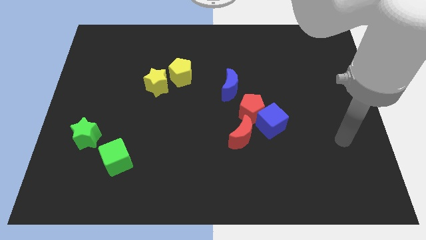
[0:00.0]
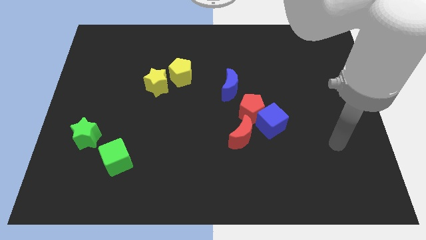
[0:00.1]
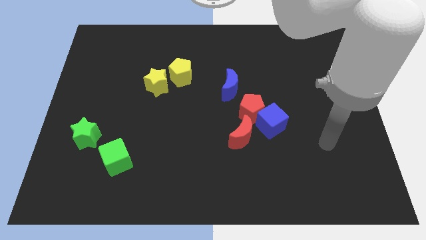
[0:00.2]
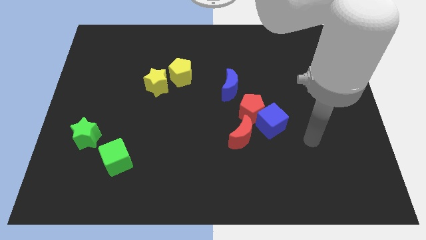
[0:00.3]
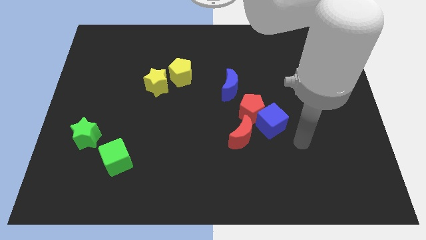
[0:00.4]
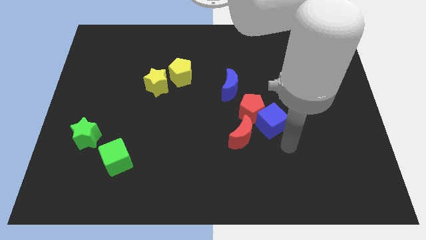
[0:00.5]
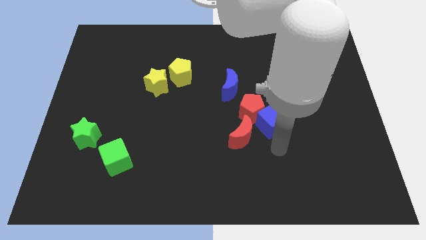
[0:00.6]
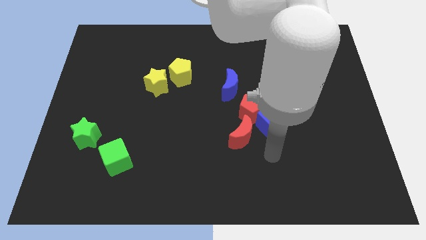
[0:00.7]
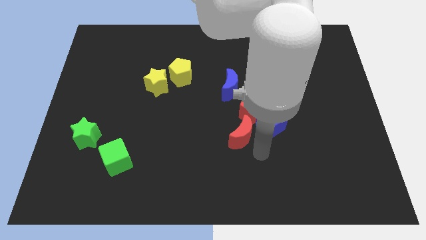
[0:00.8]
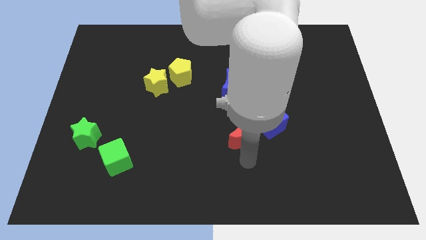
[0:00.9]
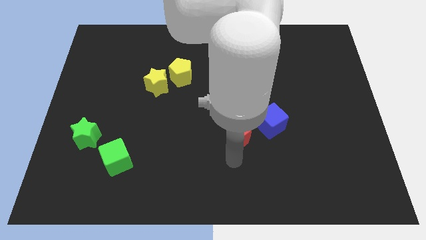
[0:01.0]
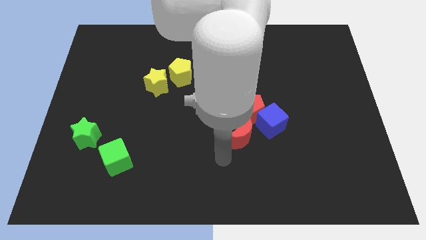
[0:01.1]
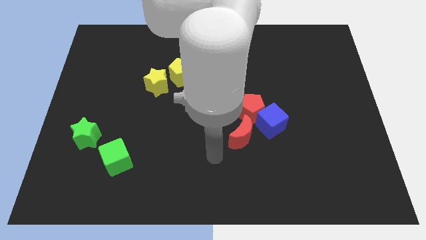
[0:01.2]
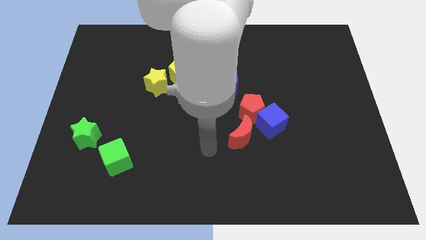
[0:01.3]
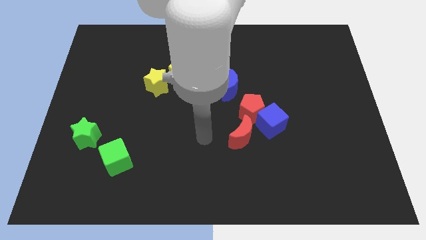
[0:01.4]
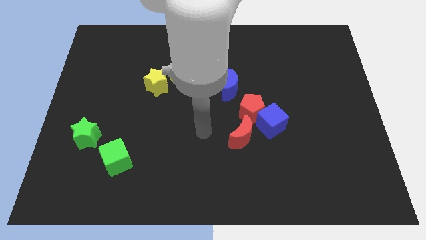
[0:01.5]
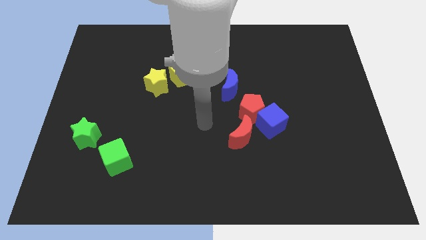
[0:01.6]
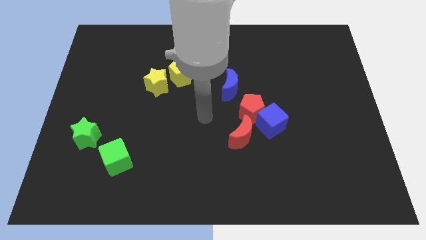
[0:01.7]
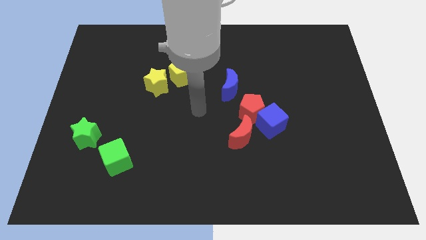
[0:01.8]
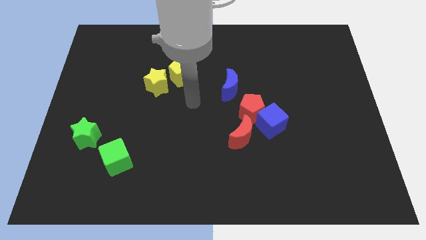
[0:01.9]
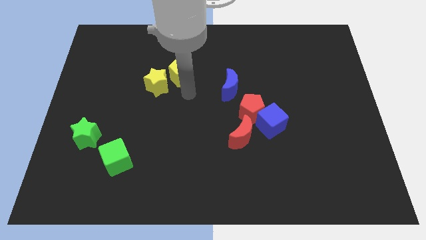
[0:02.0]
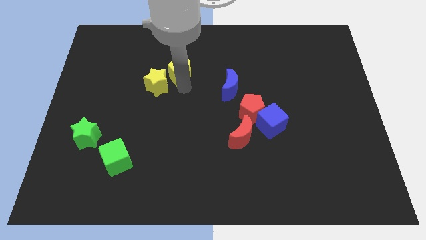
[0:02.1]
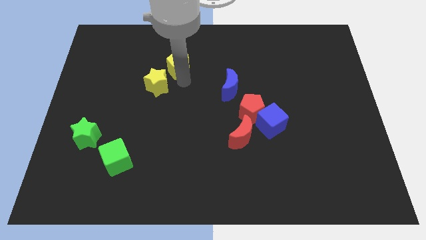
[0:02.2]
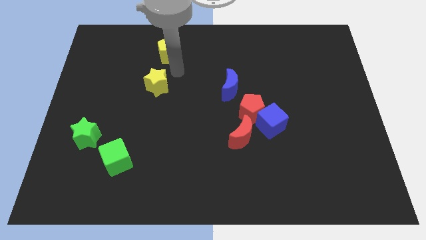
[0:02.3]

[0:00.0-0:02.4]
move the yellow star away from the yellow pentagon

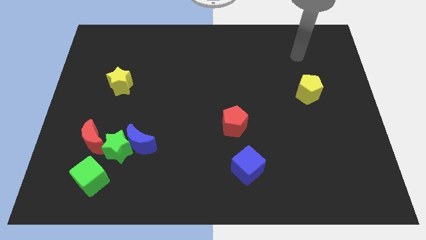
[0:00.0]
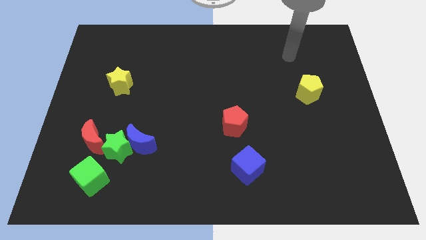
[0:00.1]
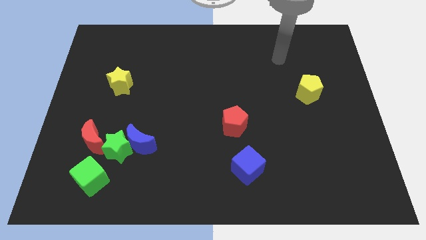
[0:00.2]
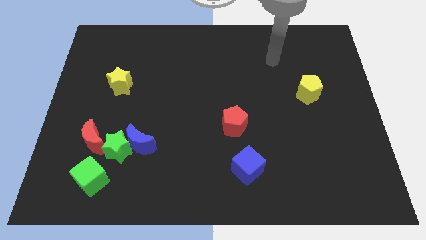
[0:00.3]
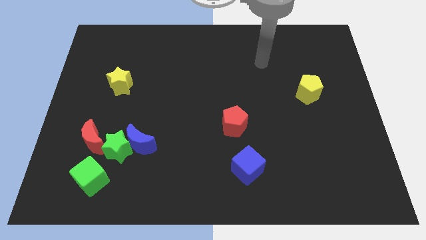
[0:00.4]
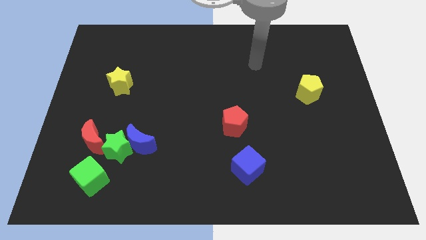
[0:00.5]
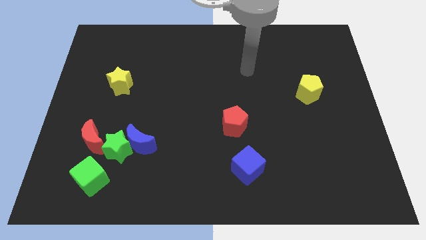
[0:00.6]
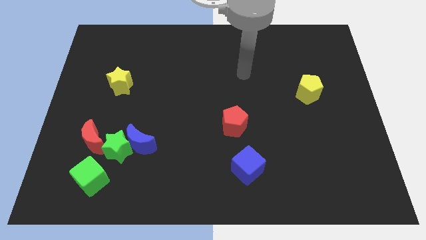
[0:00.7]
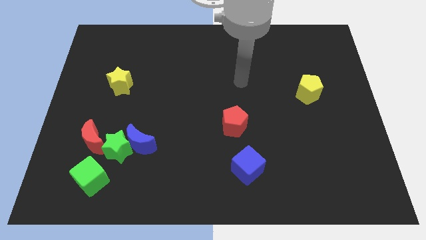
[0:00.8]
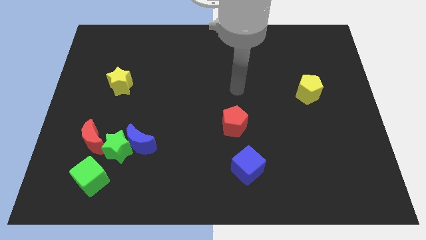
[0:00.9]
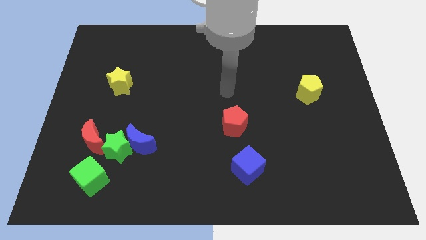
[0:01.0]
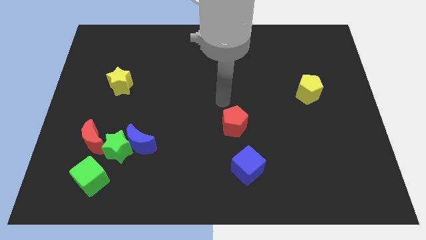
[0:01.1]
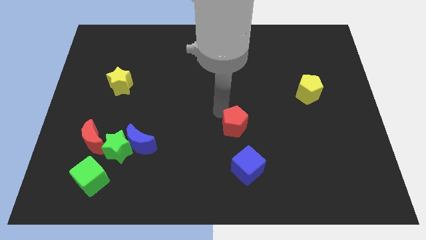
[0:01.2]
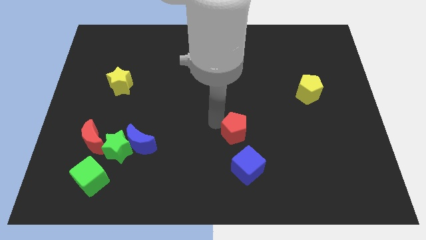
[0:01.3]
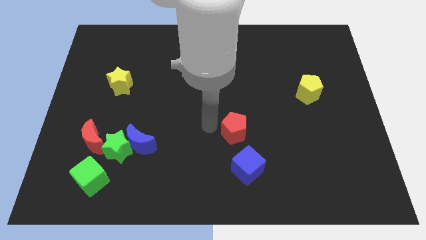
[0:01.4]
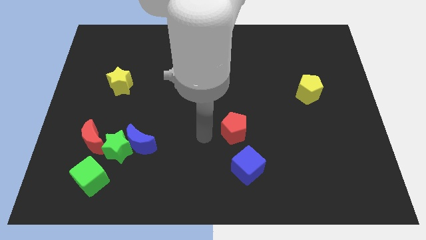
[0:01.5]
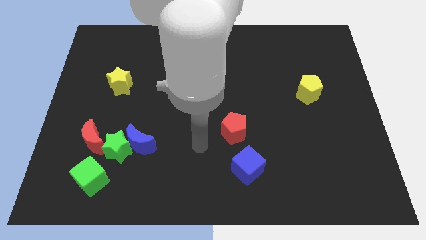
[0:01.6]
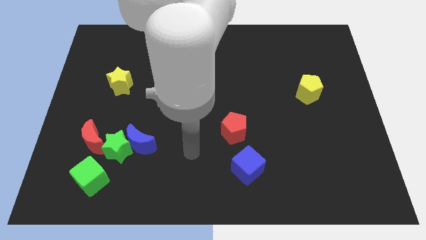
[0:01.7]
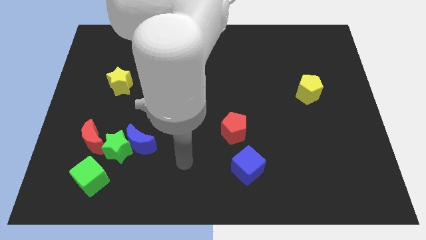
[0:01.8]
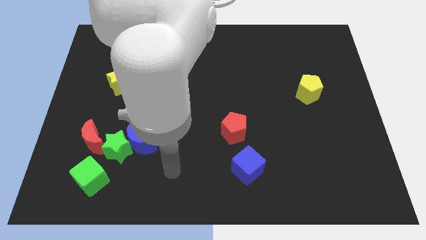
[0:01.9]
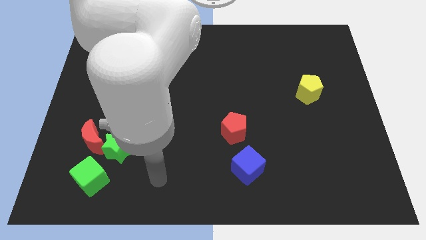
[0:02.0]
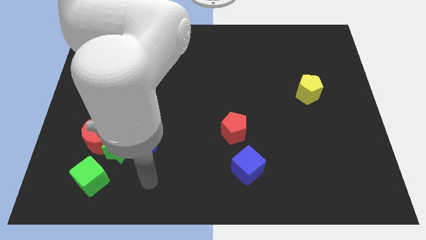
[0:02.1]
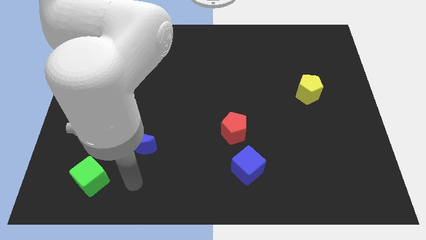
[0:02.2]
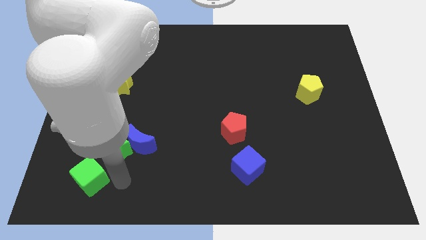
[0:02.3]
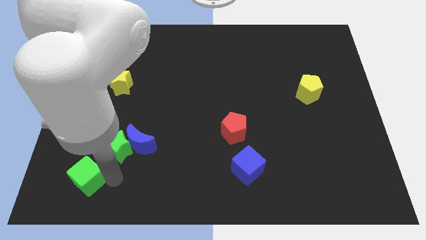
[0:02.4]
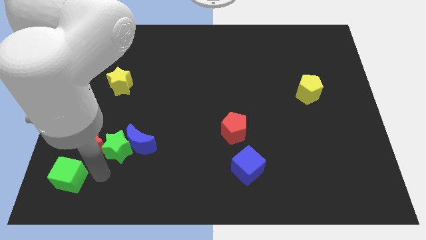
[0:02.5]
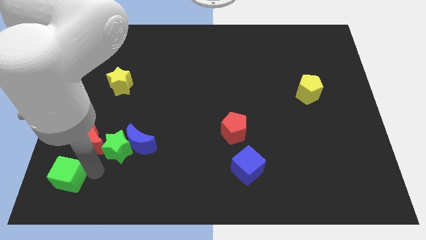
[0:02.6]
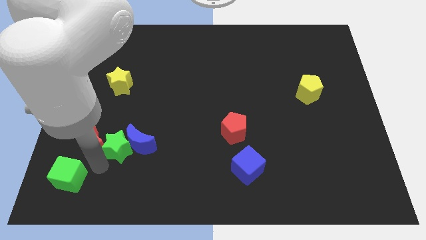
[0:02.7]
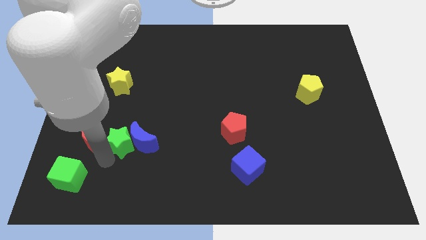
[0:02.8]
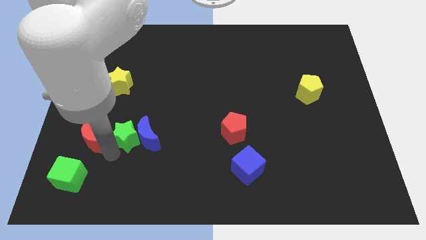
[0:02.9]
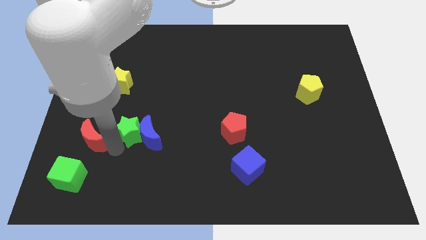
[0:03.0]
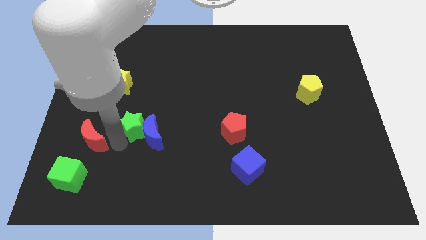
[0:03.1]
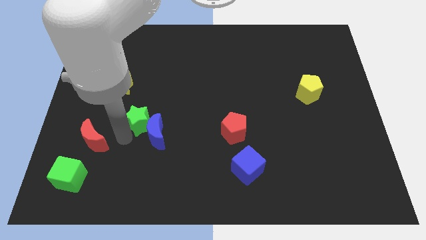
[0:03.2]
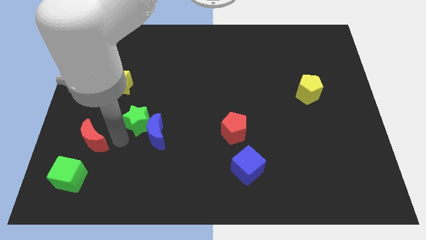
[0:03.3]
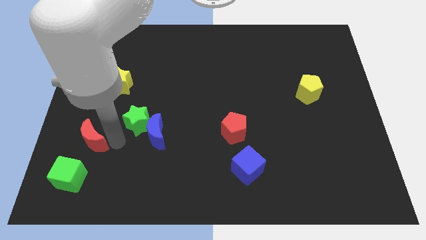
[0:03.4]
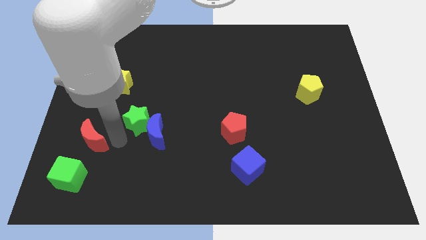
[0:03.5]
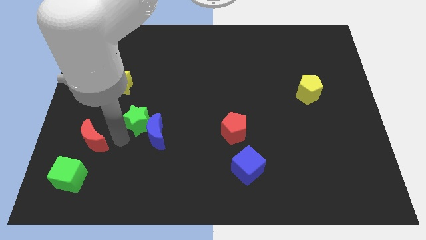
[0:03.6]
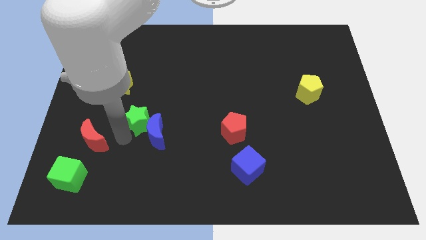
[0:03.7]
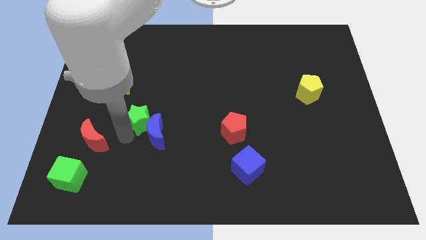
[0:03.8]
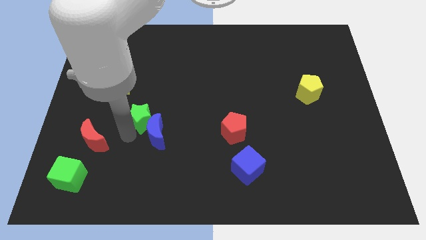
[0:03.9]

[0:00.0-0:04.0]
move the green star away from the blue moon, red moon, and green cube

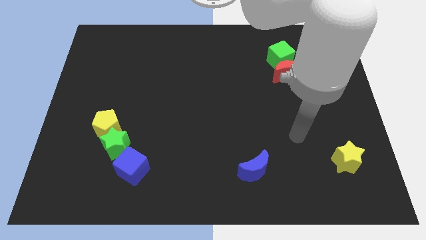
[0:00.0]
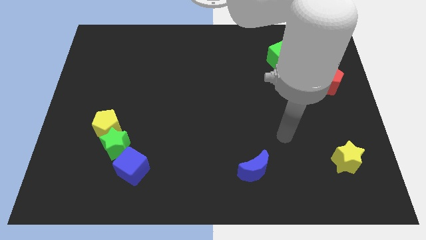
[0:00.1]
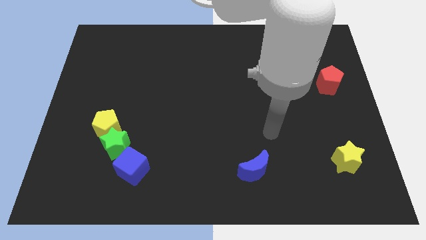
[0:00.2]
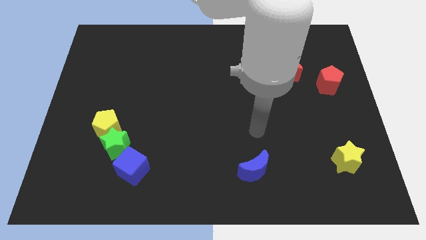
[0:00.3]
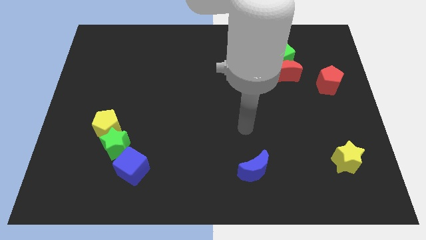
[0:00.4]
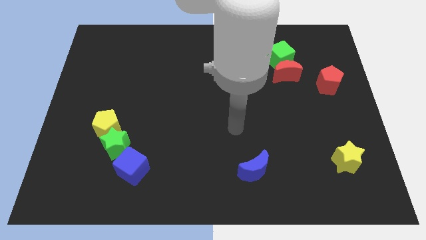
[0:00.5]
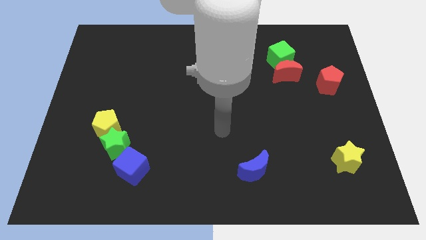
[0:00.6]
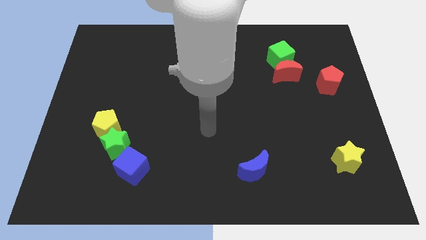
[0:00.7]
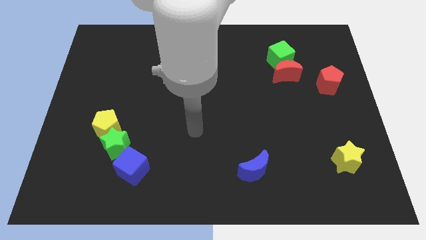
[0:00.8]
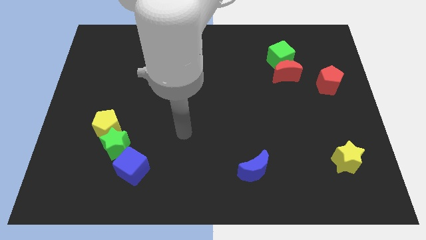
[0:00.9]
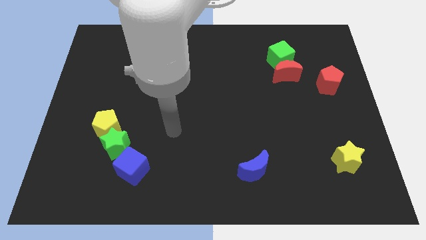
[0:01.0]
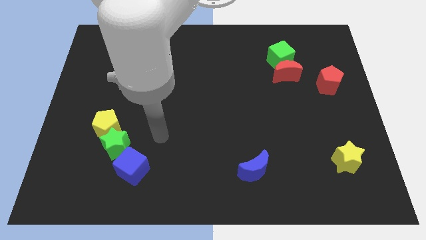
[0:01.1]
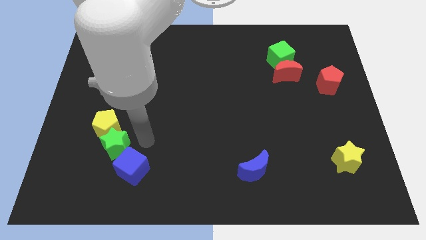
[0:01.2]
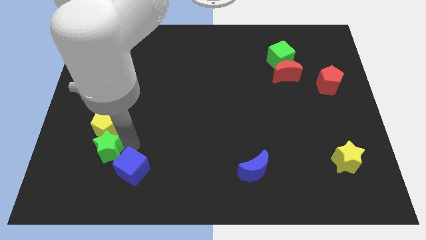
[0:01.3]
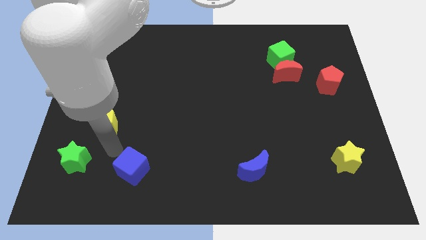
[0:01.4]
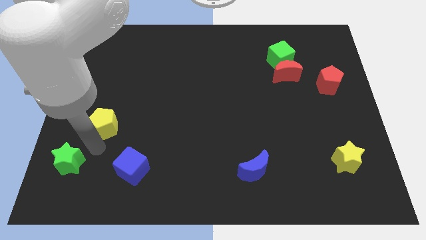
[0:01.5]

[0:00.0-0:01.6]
move the yellow pentagon away from the green star

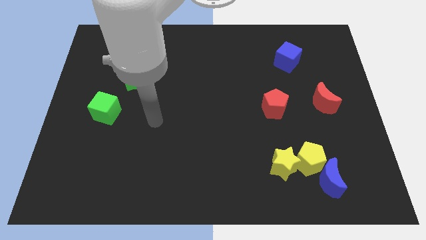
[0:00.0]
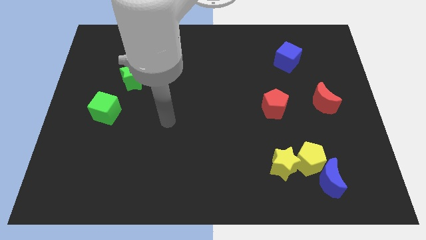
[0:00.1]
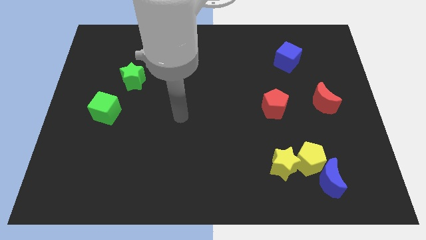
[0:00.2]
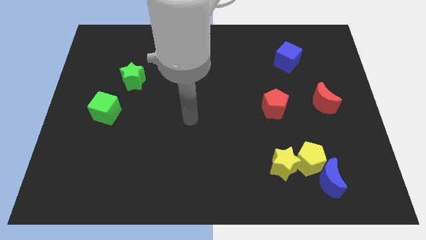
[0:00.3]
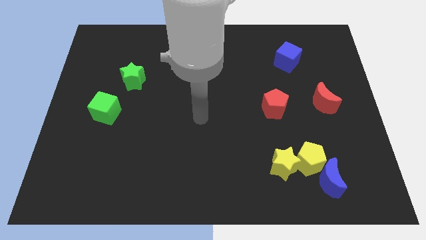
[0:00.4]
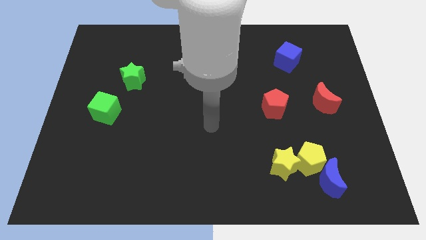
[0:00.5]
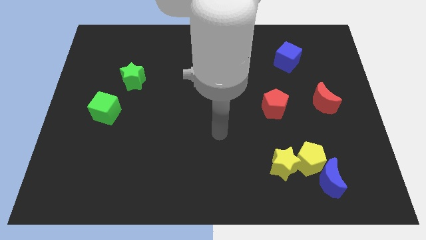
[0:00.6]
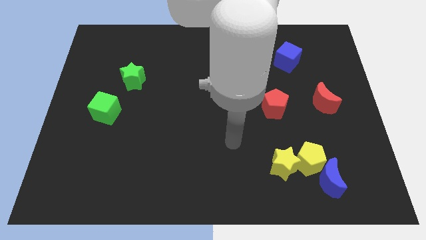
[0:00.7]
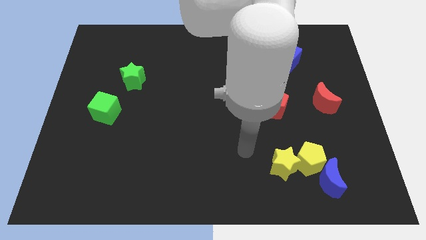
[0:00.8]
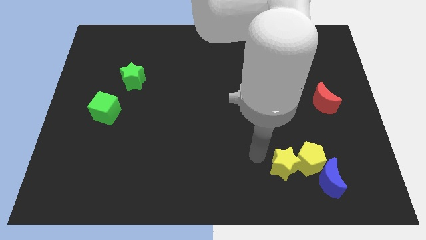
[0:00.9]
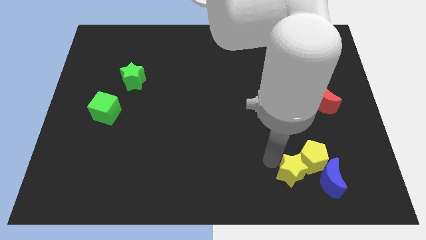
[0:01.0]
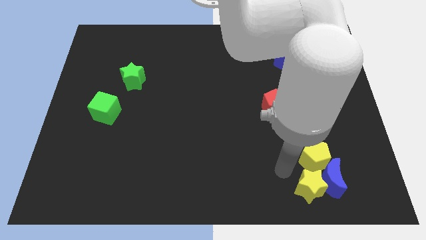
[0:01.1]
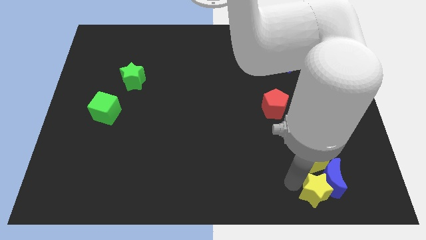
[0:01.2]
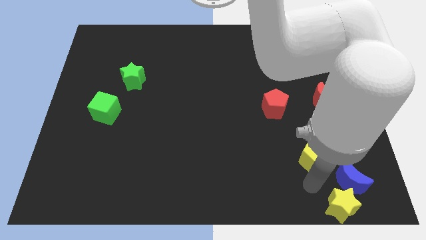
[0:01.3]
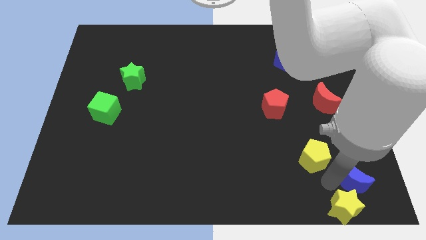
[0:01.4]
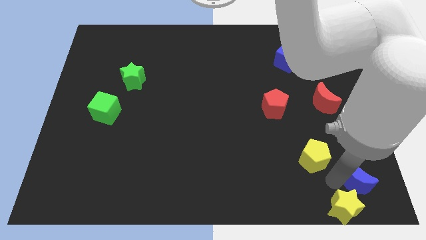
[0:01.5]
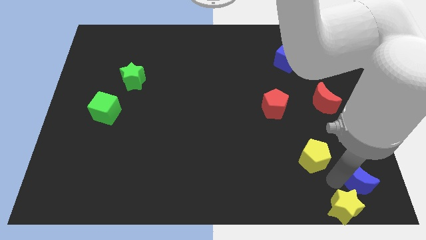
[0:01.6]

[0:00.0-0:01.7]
separate the yellow pentagon from the blue moon and yellow star
